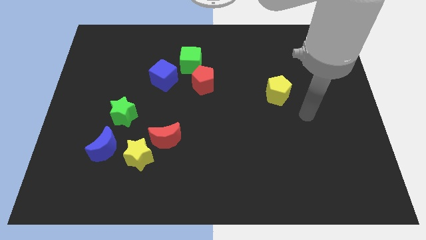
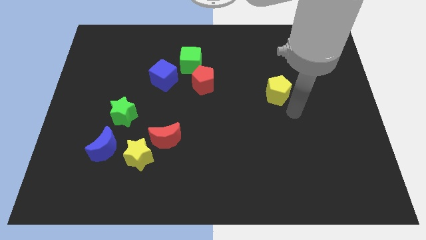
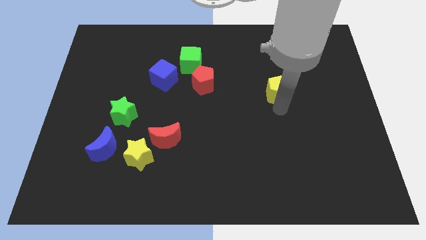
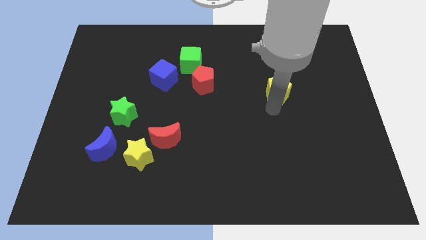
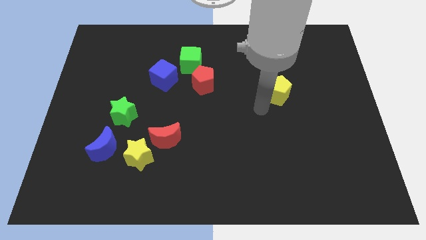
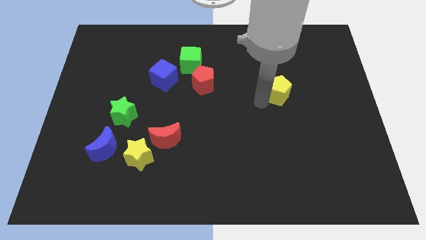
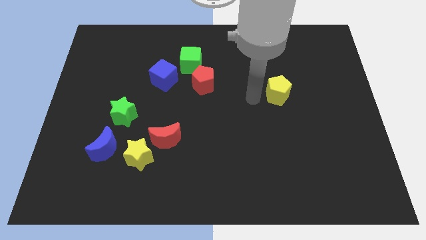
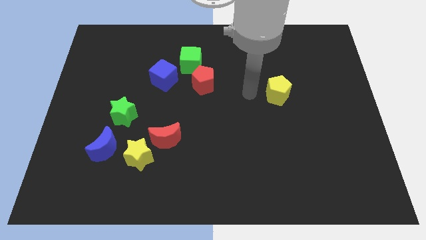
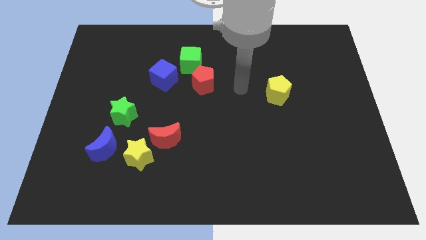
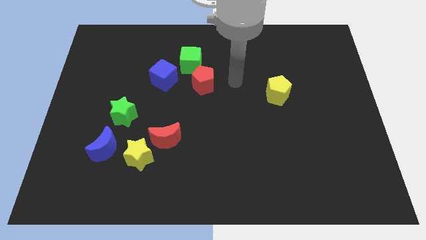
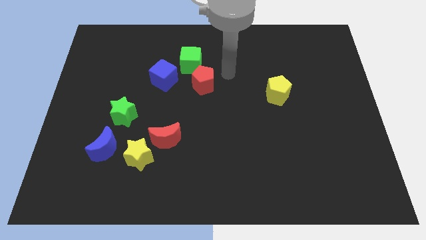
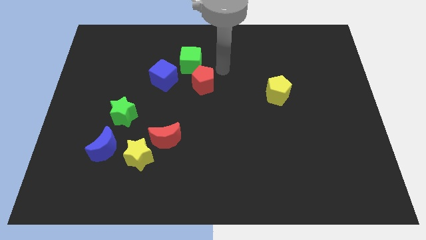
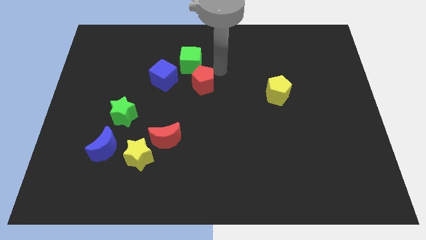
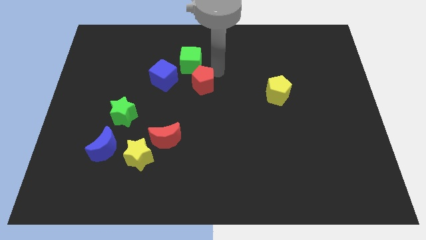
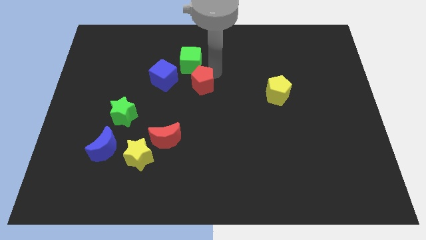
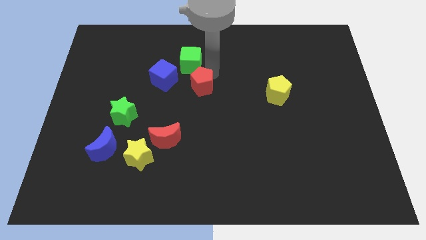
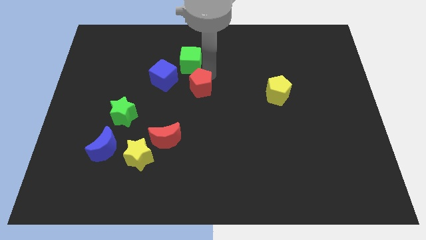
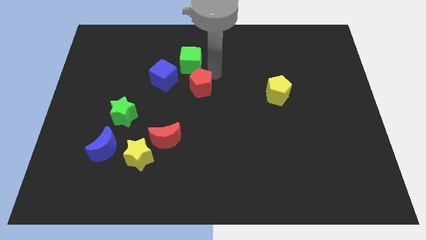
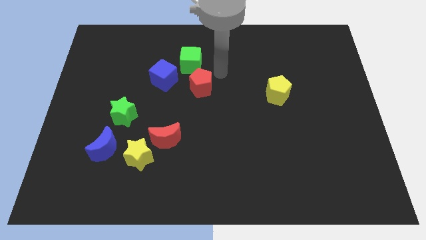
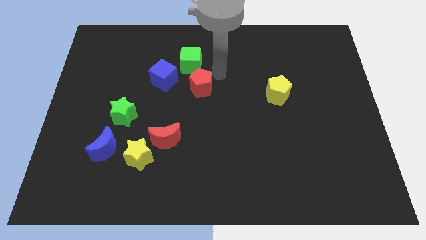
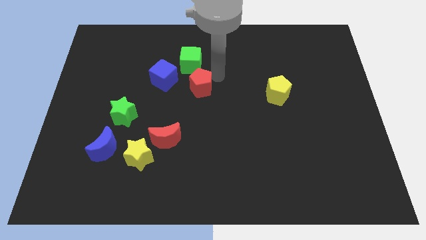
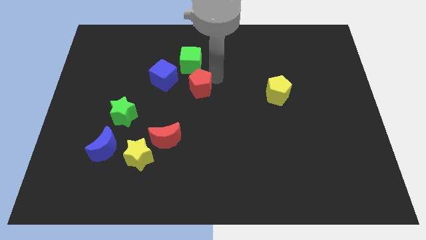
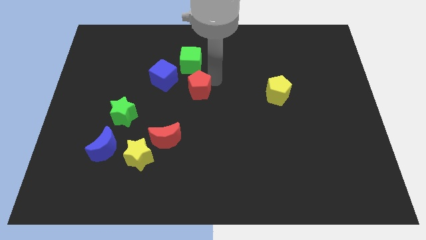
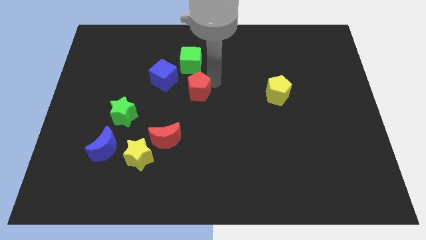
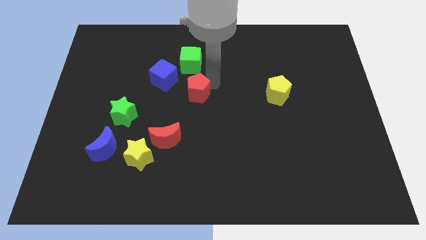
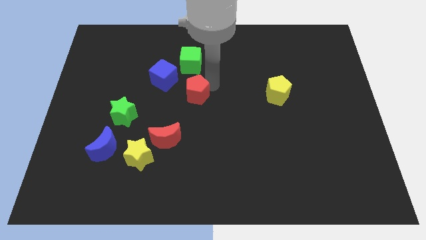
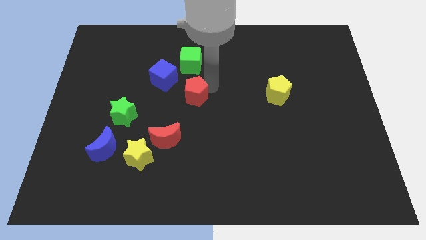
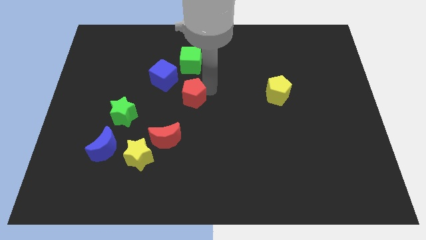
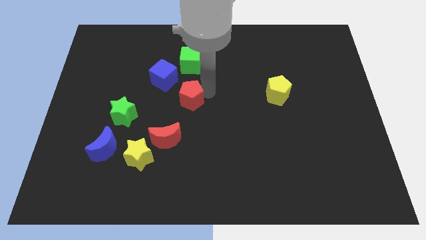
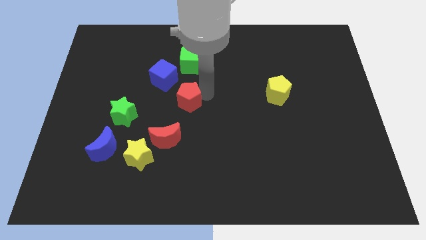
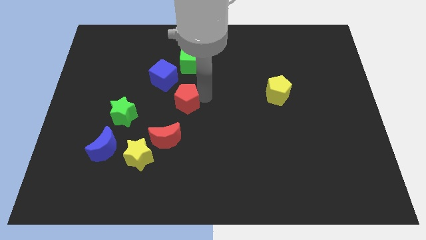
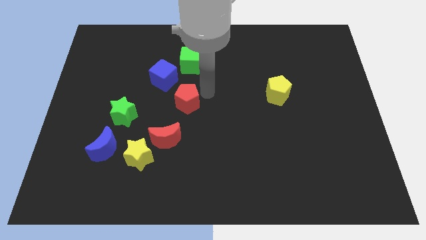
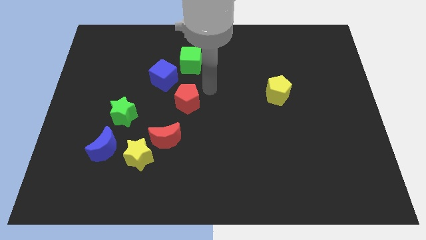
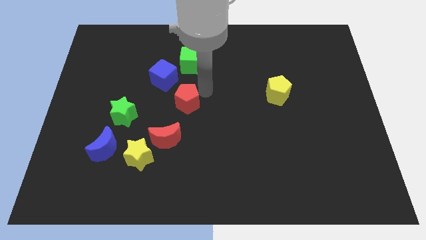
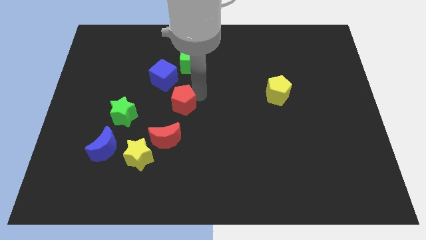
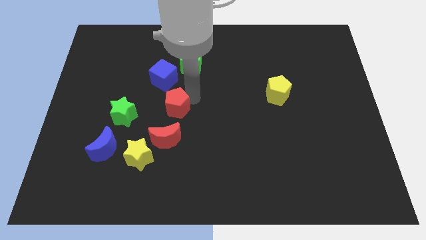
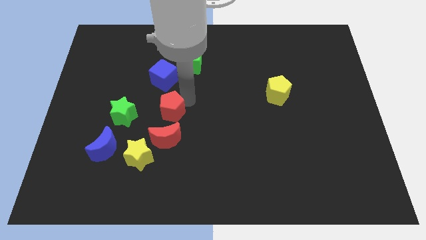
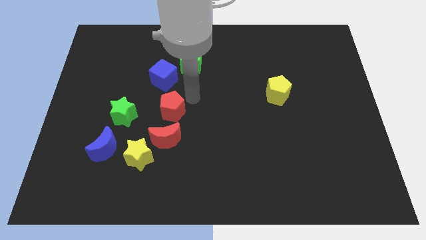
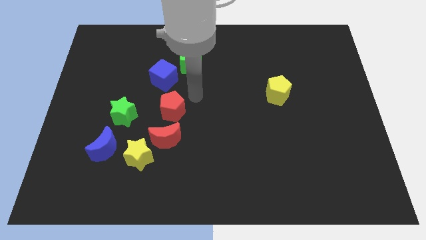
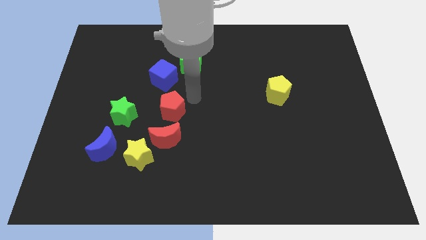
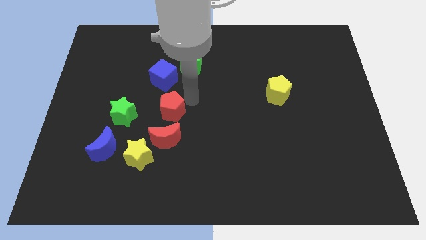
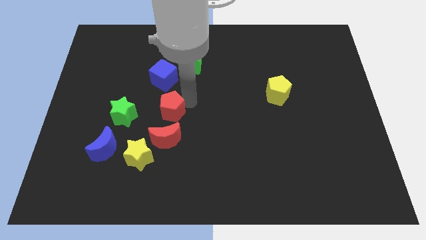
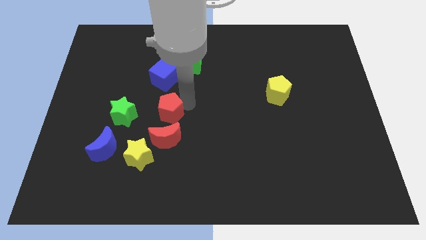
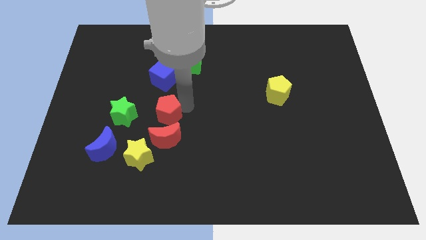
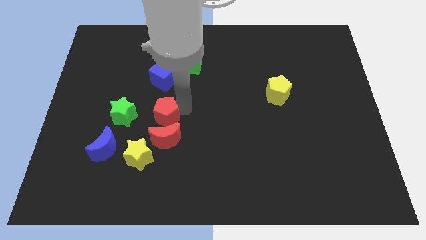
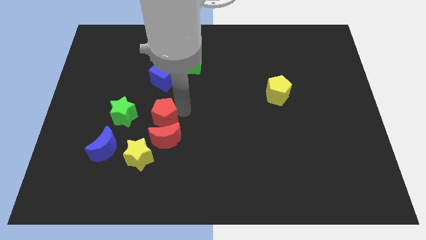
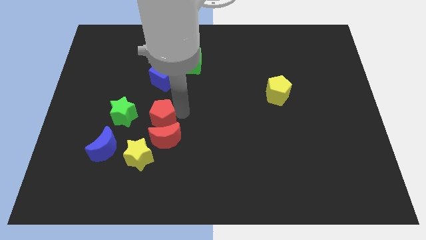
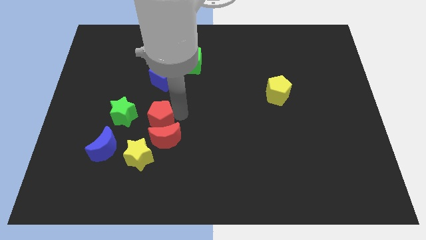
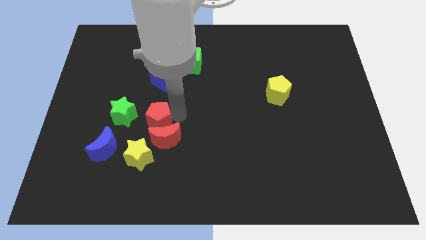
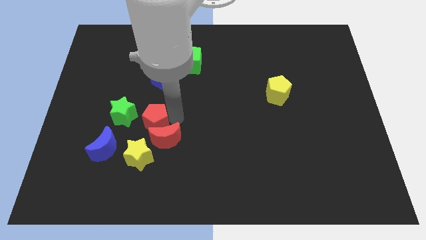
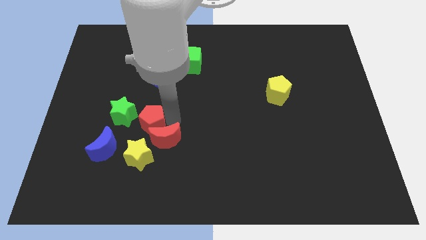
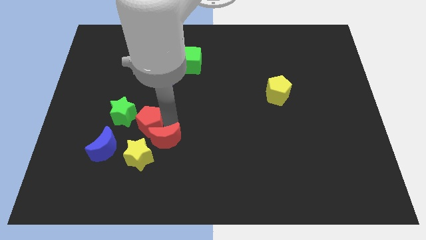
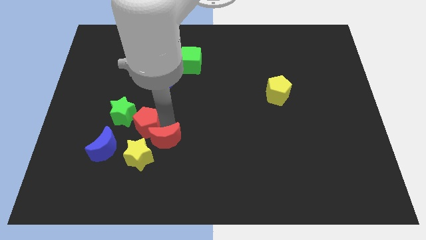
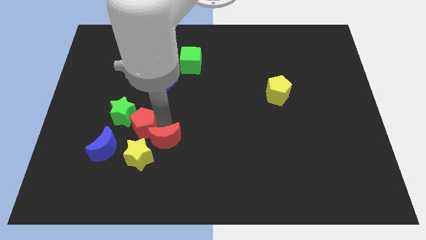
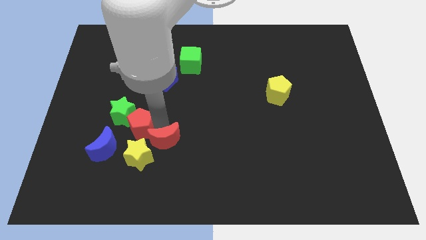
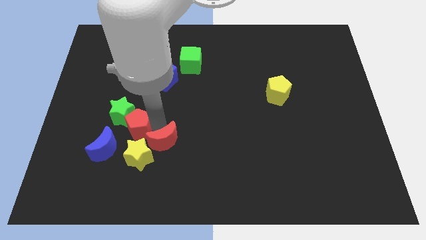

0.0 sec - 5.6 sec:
move the red pentagon down and then left

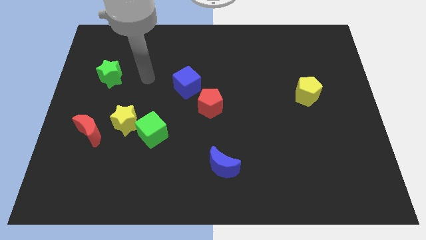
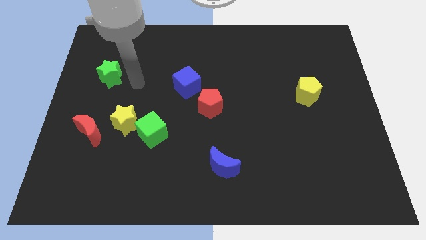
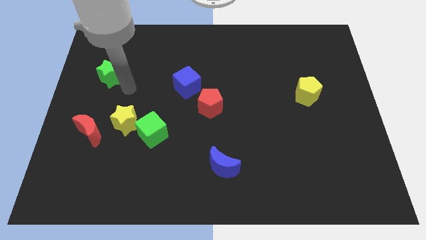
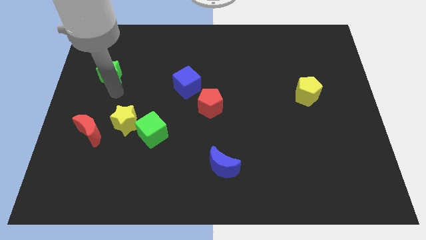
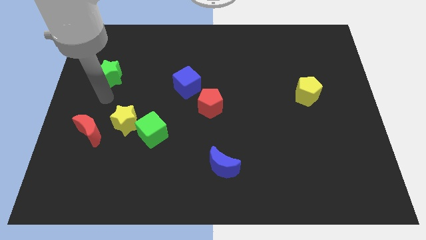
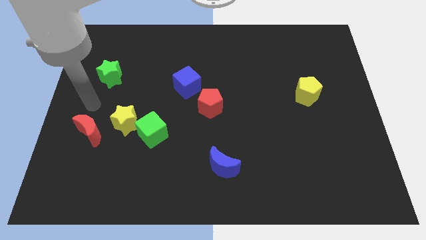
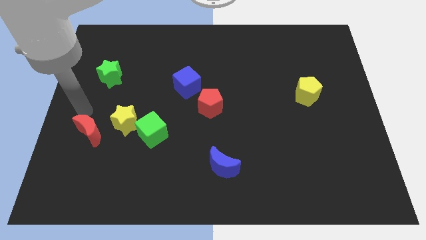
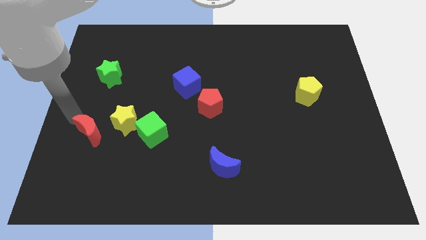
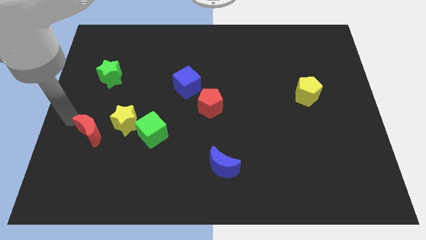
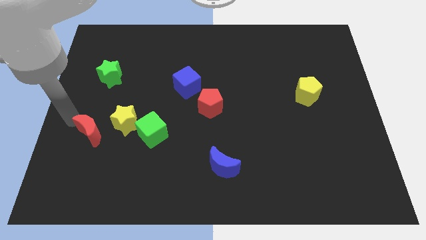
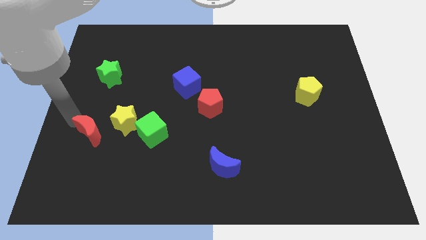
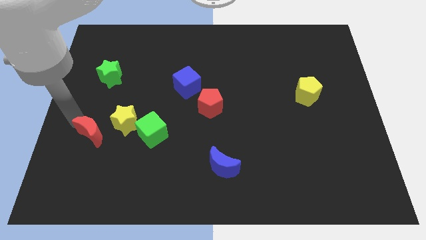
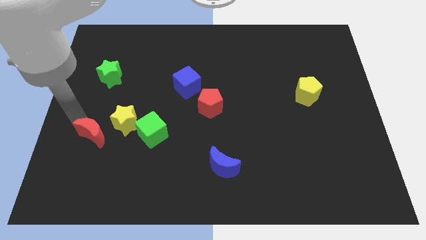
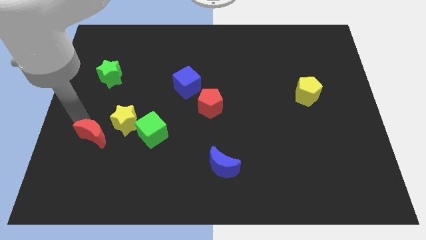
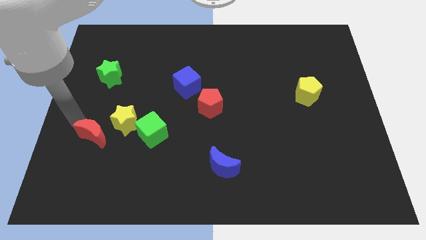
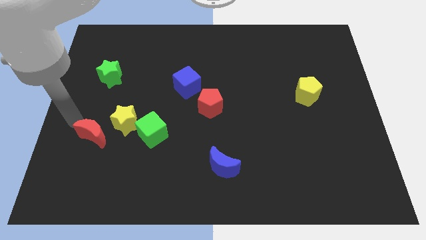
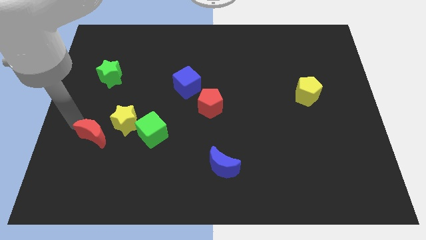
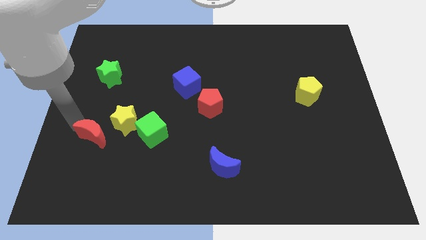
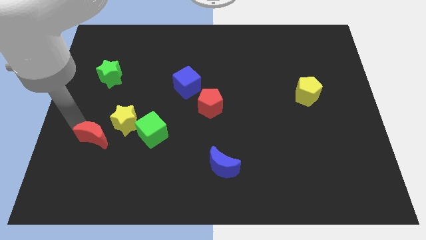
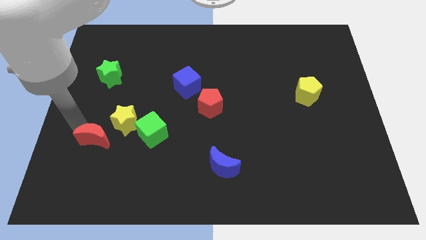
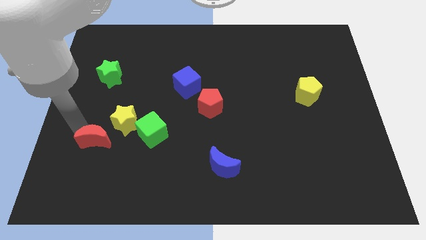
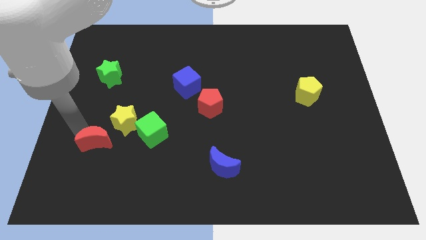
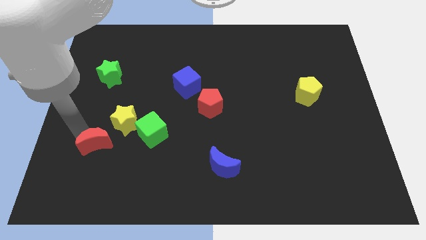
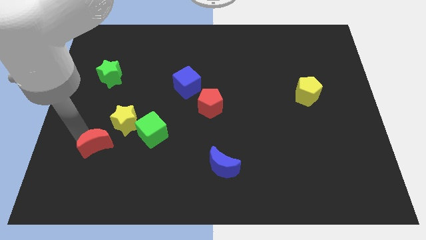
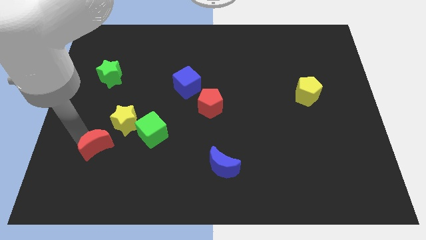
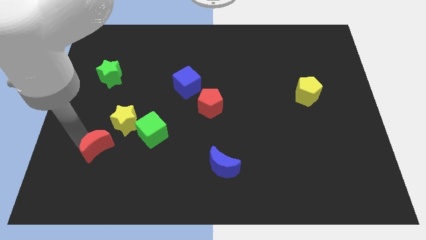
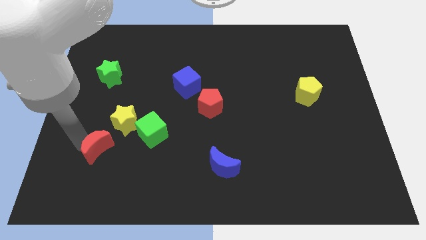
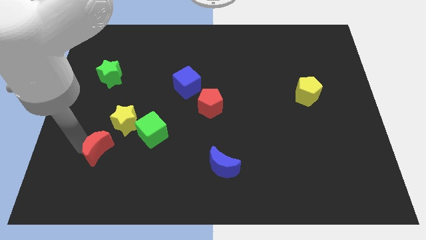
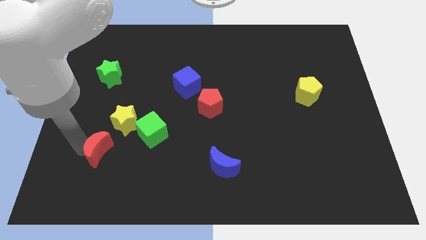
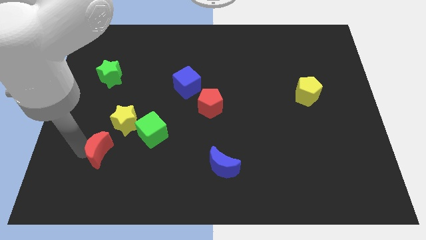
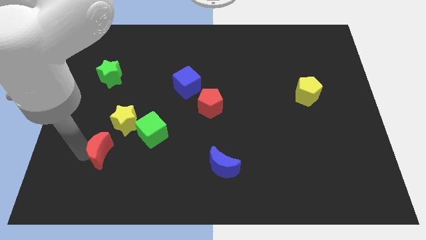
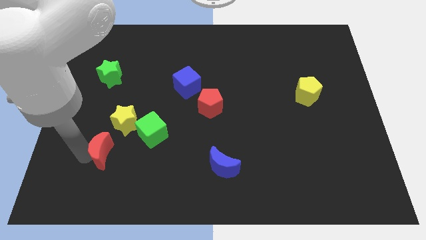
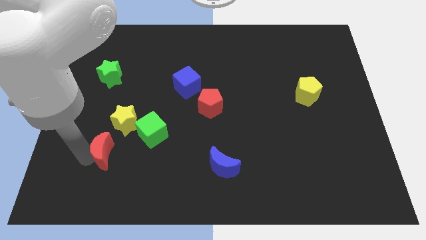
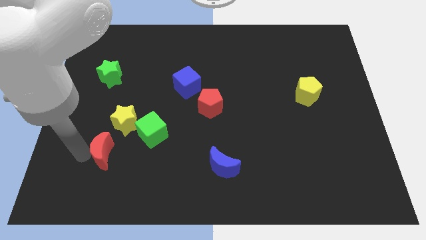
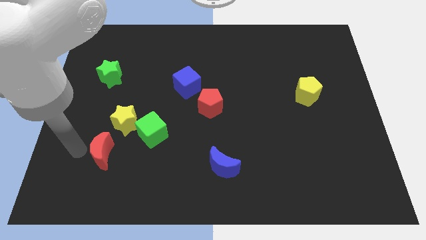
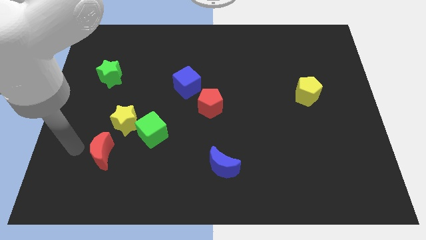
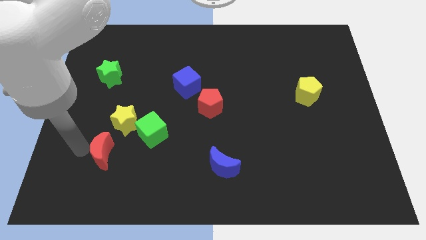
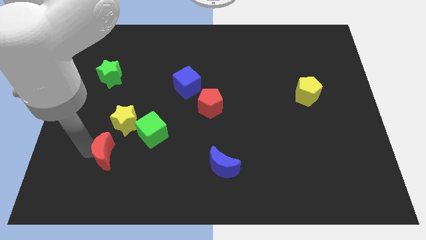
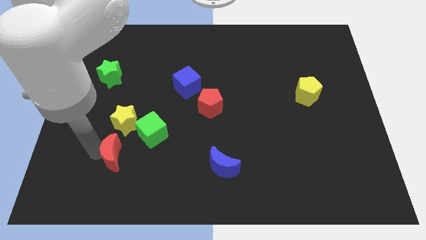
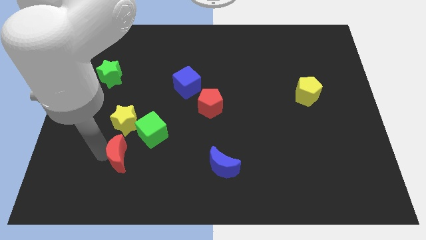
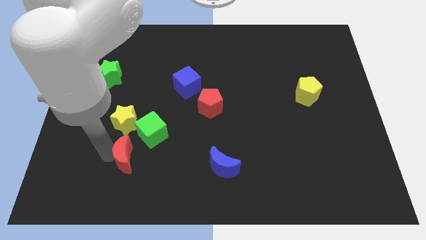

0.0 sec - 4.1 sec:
move the red moon somewhat right
